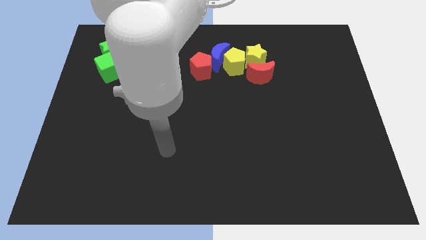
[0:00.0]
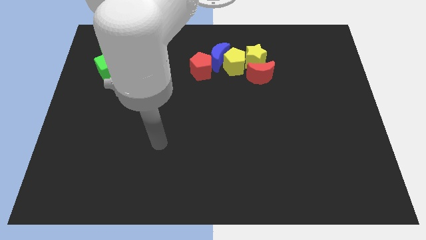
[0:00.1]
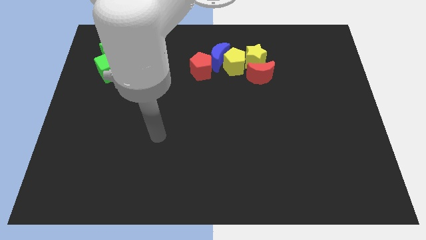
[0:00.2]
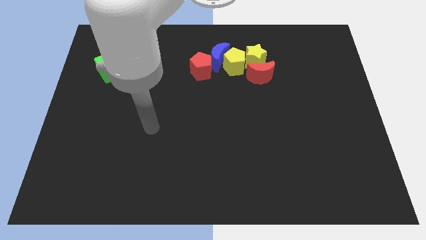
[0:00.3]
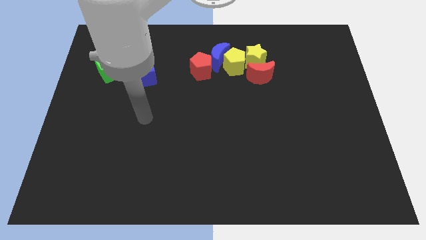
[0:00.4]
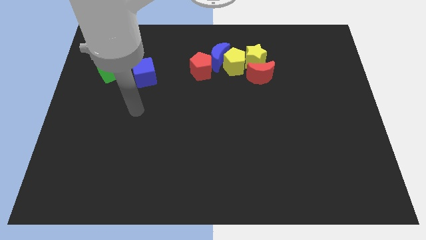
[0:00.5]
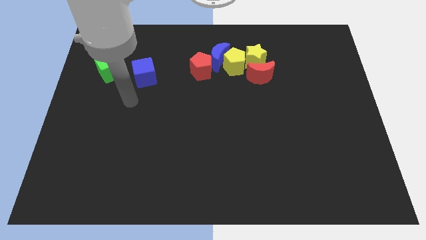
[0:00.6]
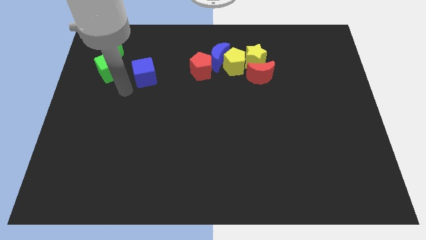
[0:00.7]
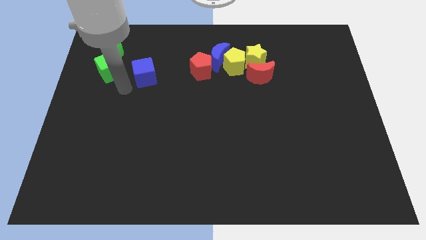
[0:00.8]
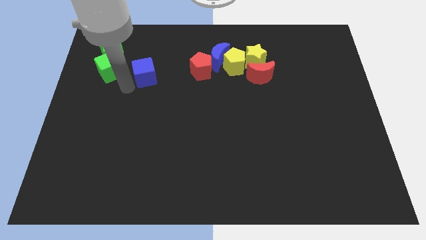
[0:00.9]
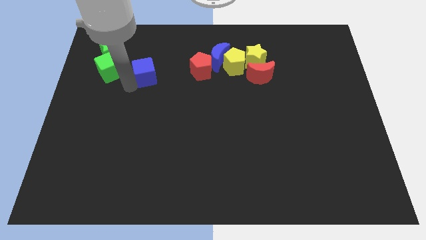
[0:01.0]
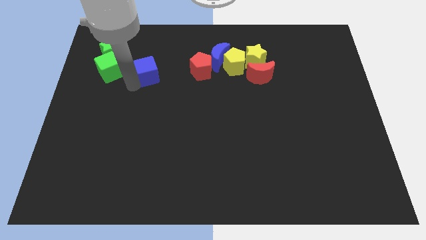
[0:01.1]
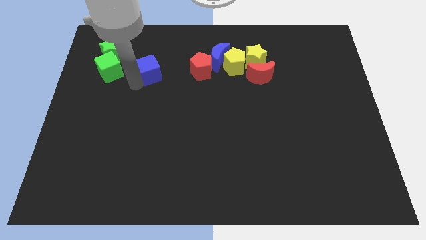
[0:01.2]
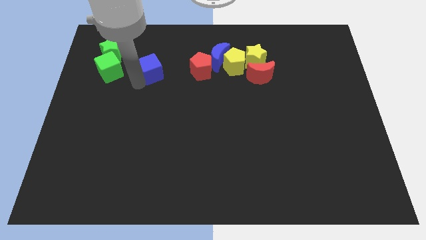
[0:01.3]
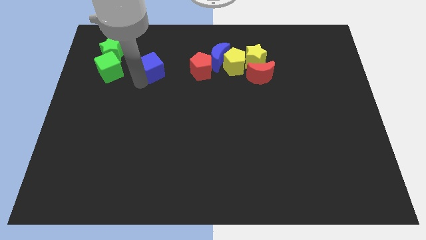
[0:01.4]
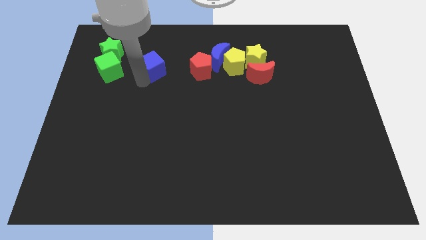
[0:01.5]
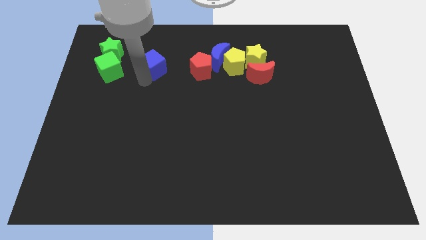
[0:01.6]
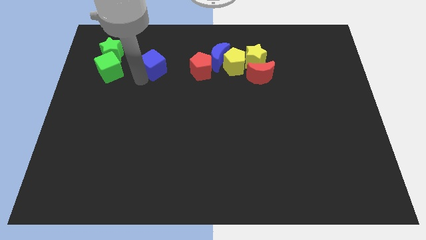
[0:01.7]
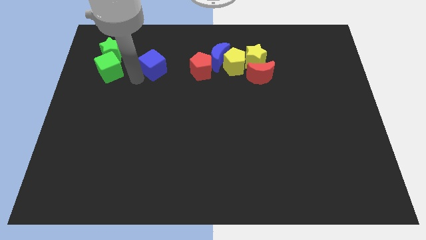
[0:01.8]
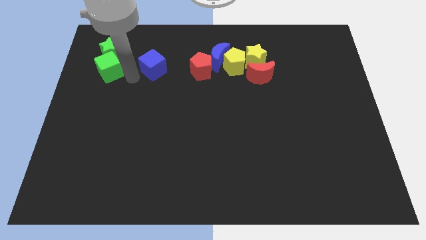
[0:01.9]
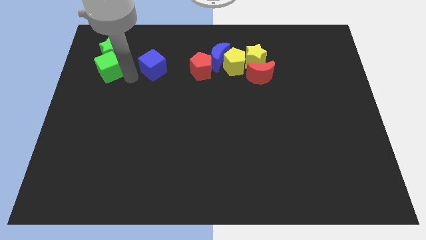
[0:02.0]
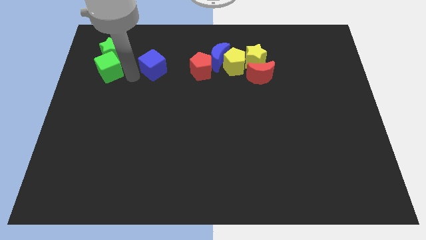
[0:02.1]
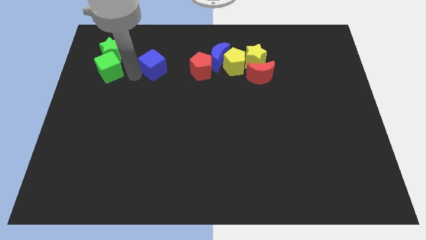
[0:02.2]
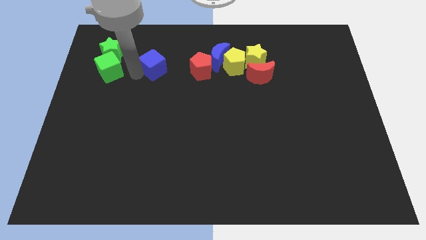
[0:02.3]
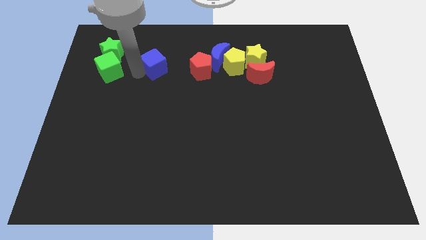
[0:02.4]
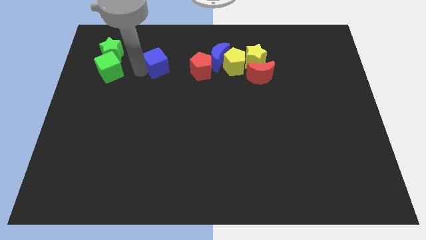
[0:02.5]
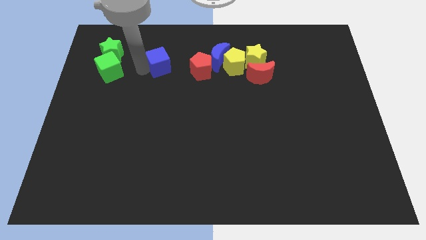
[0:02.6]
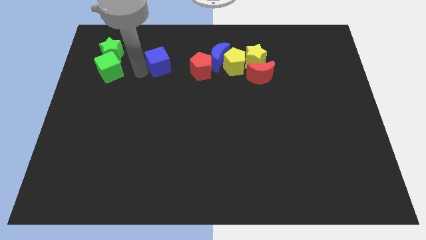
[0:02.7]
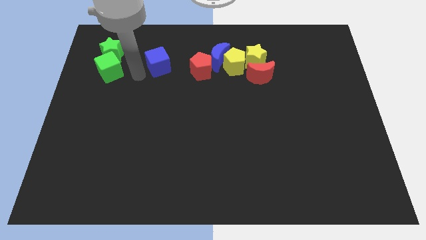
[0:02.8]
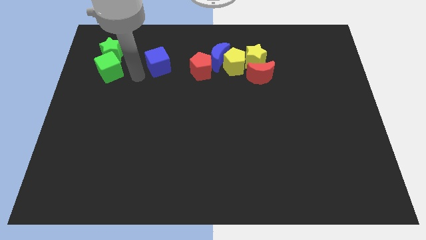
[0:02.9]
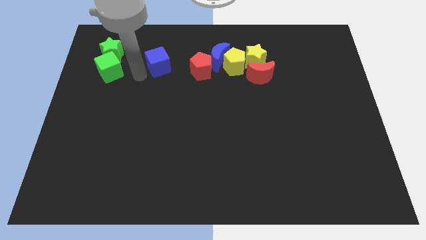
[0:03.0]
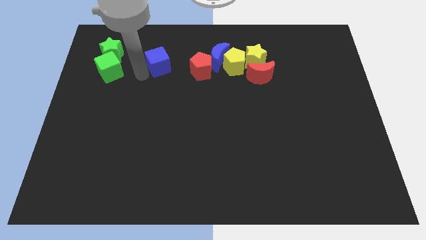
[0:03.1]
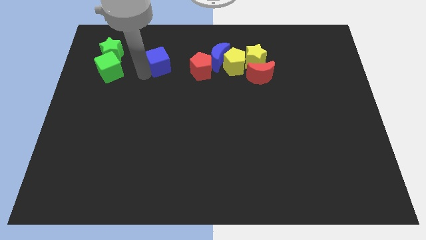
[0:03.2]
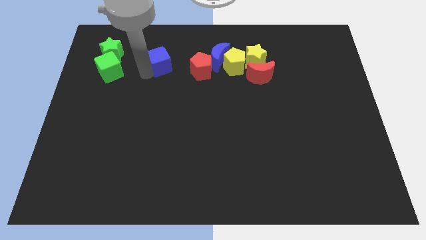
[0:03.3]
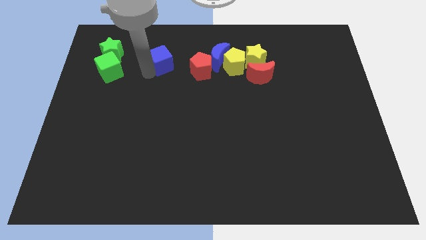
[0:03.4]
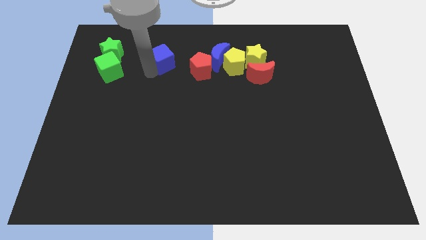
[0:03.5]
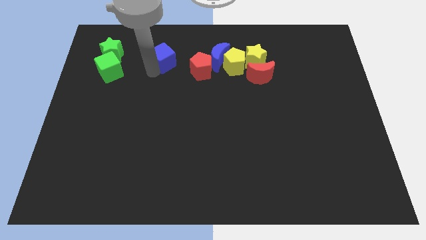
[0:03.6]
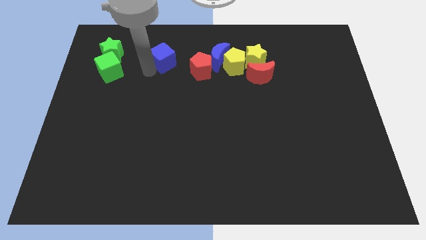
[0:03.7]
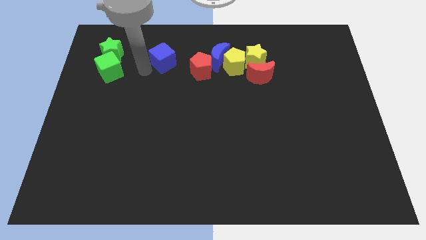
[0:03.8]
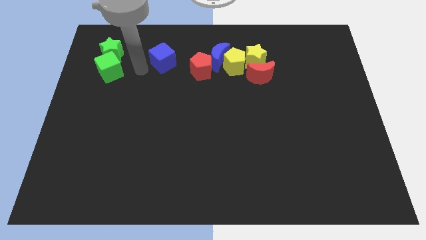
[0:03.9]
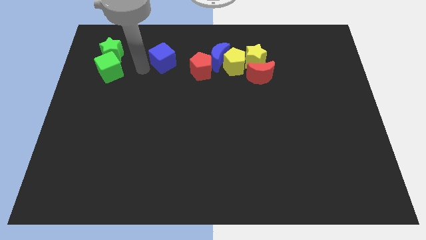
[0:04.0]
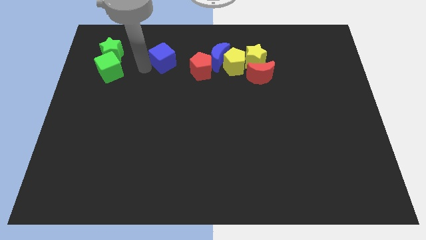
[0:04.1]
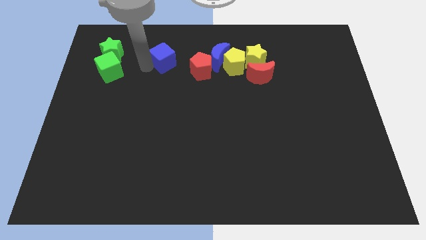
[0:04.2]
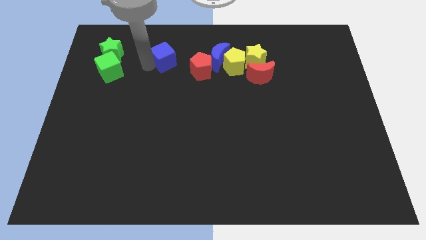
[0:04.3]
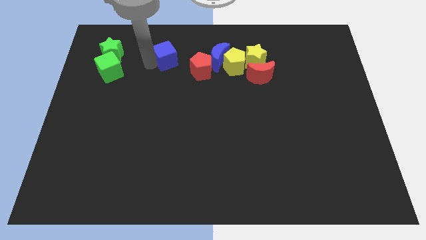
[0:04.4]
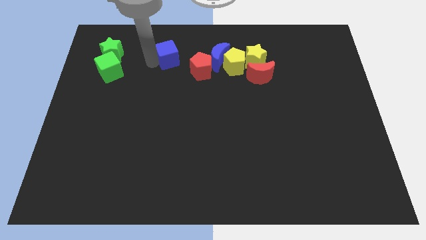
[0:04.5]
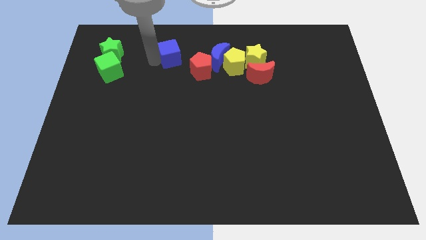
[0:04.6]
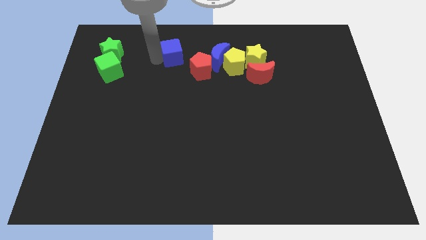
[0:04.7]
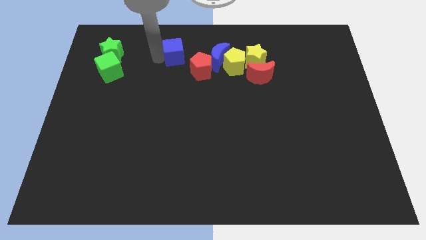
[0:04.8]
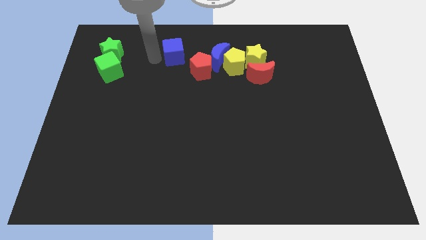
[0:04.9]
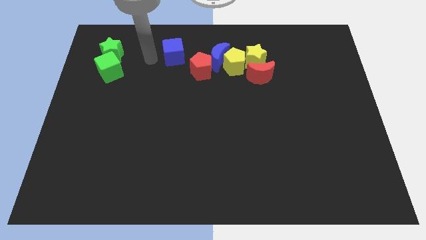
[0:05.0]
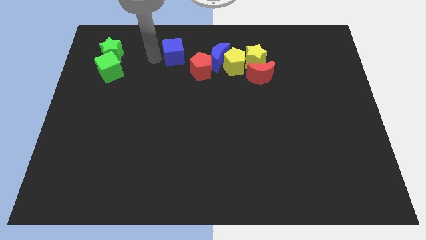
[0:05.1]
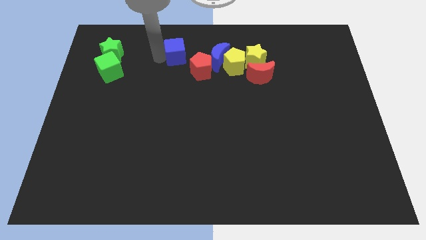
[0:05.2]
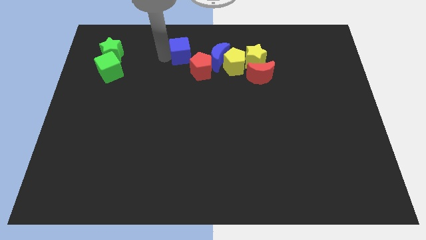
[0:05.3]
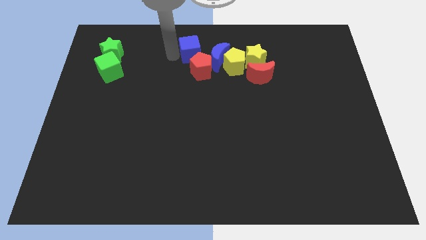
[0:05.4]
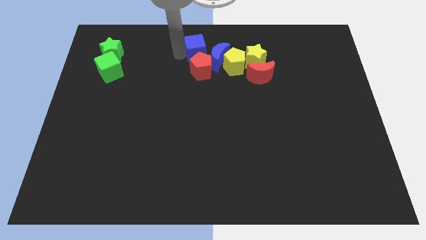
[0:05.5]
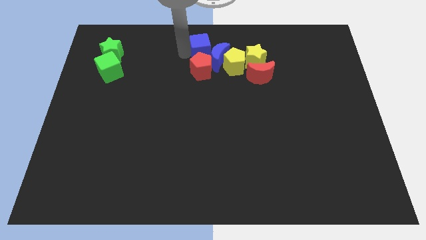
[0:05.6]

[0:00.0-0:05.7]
slide the blue cube close to the blue moon

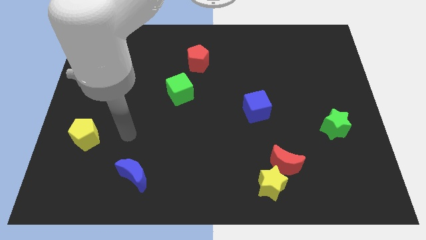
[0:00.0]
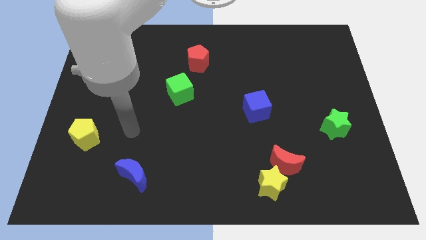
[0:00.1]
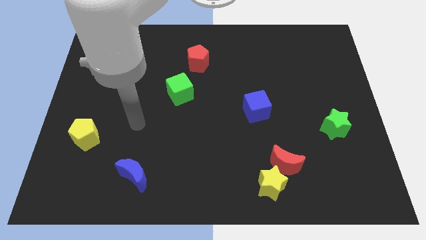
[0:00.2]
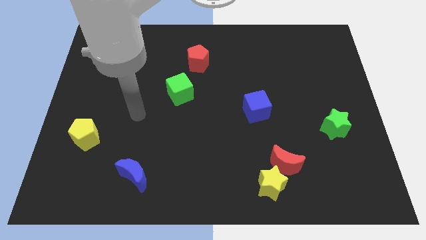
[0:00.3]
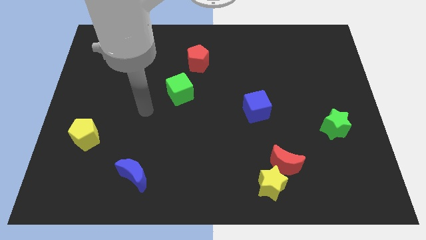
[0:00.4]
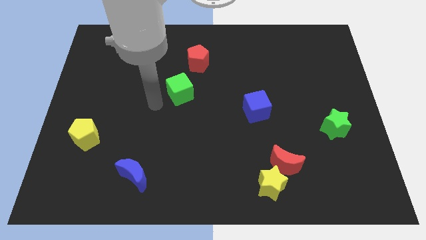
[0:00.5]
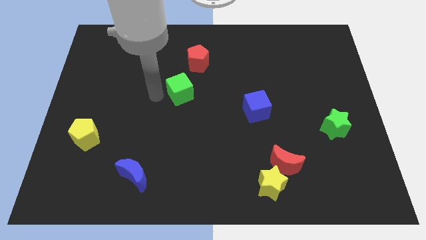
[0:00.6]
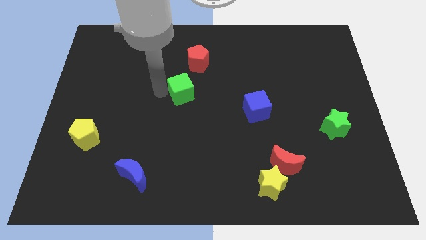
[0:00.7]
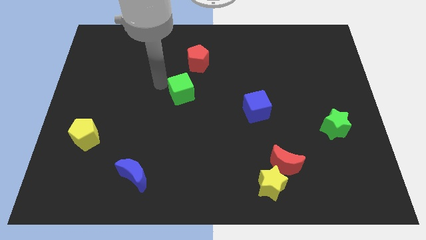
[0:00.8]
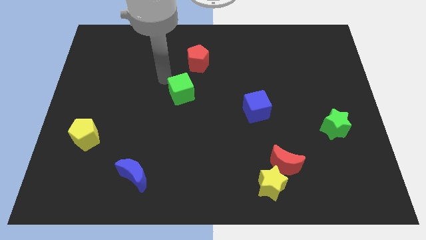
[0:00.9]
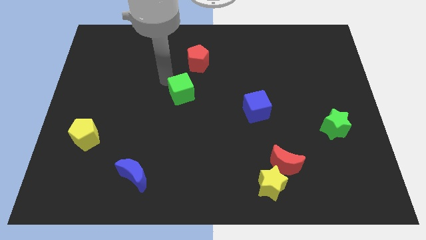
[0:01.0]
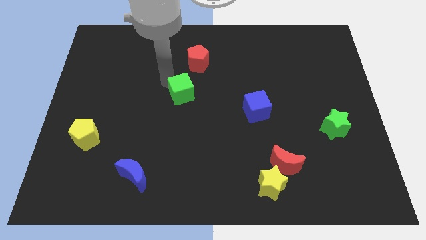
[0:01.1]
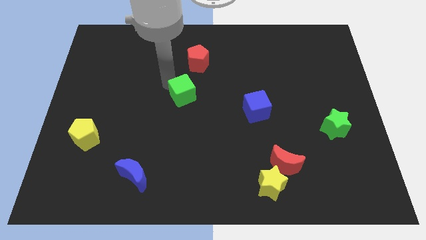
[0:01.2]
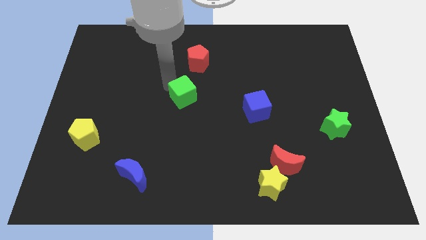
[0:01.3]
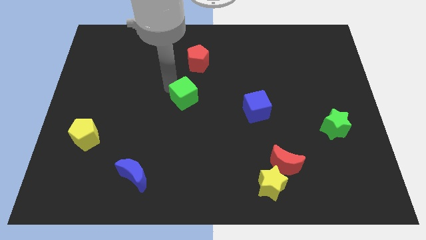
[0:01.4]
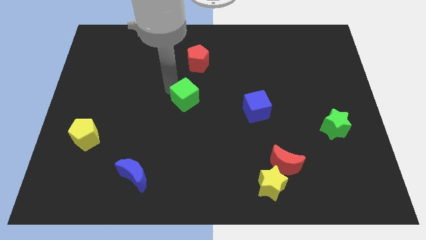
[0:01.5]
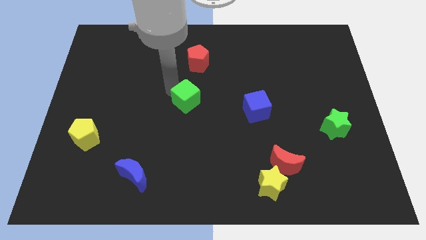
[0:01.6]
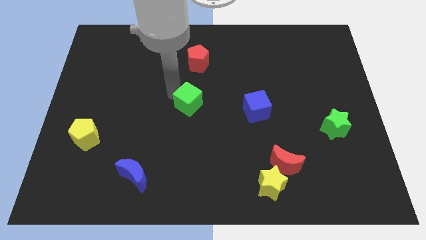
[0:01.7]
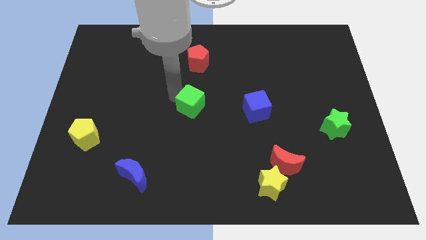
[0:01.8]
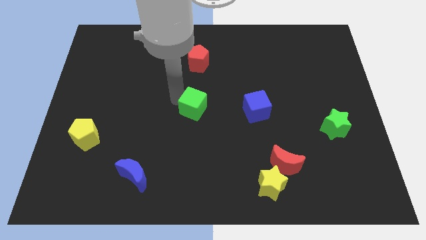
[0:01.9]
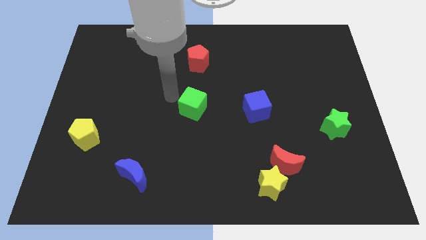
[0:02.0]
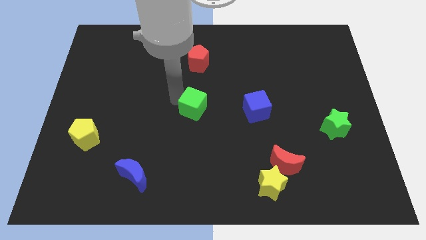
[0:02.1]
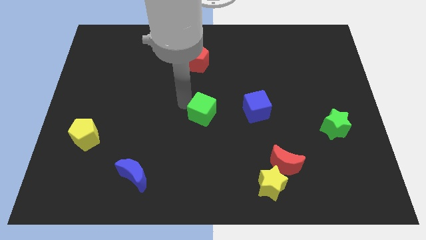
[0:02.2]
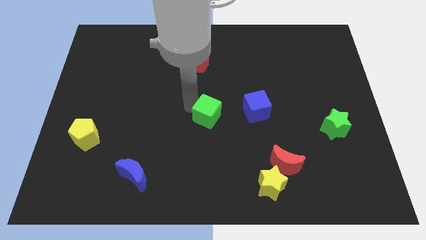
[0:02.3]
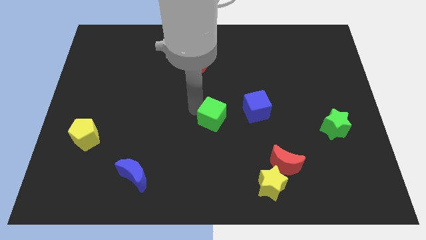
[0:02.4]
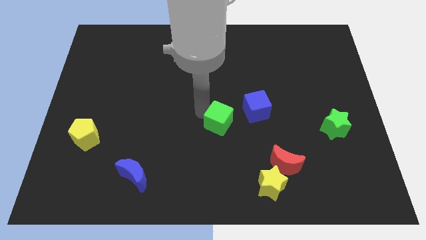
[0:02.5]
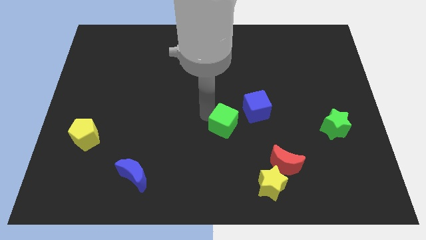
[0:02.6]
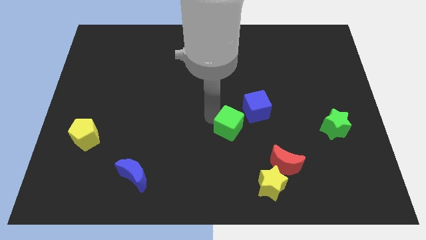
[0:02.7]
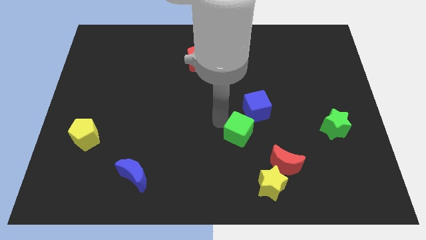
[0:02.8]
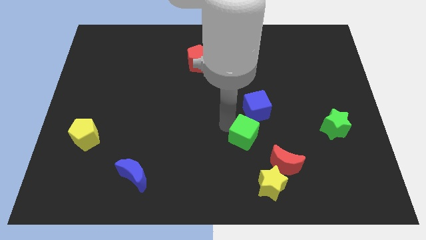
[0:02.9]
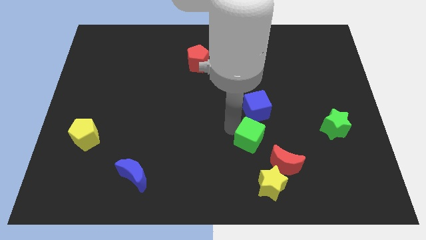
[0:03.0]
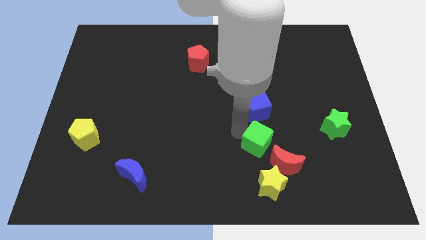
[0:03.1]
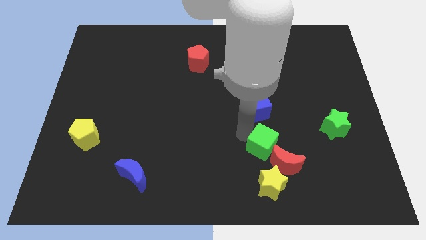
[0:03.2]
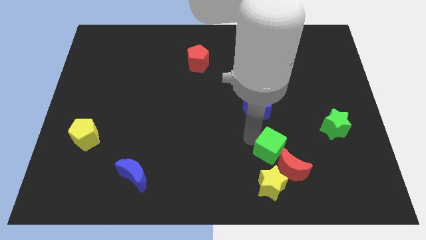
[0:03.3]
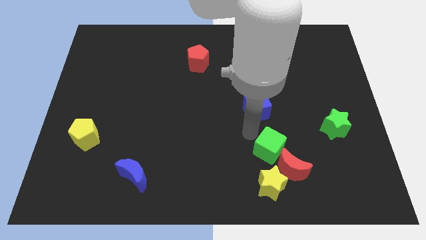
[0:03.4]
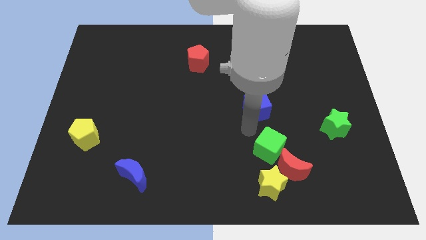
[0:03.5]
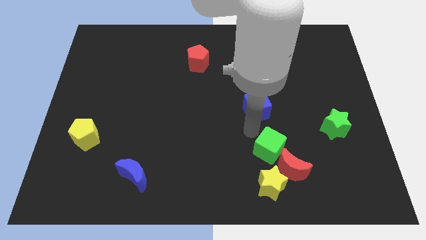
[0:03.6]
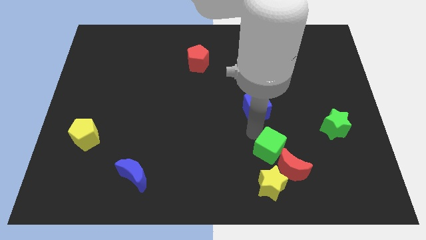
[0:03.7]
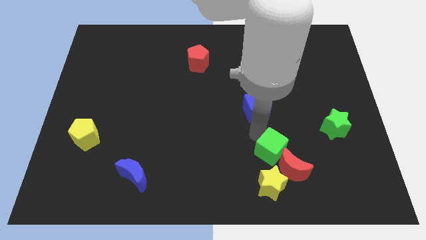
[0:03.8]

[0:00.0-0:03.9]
push the green cube towards the red moon
